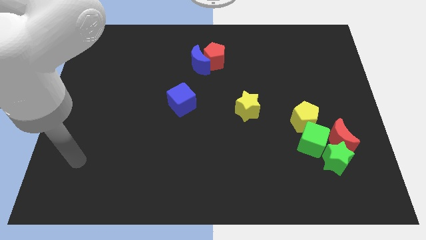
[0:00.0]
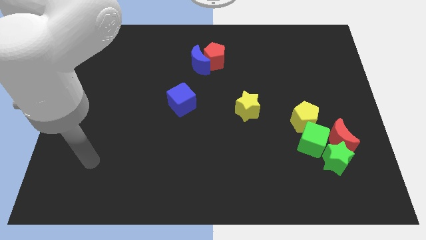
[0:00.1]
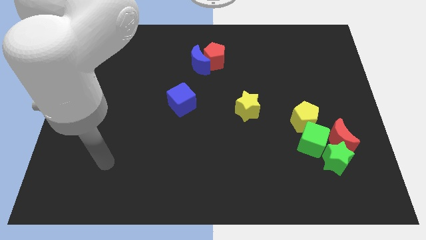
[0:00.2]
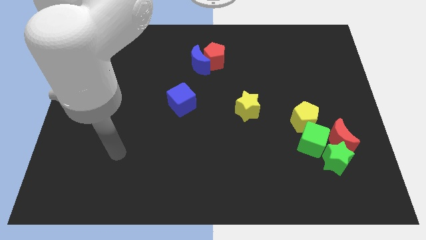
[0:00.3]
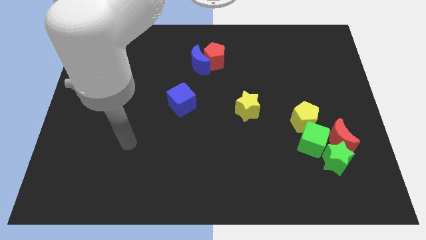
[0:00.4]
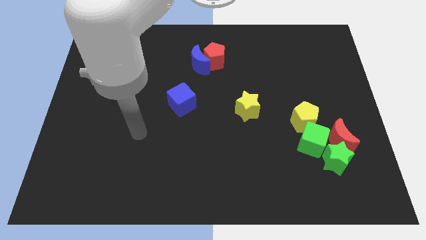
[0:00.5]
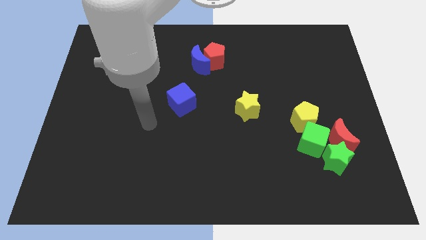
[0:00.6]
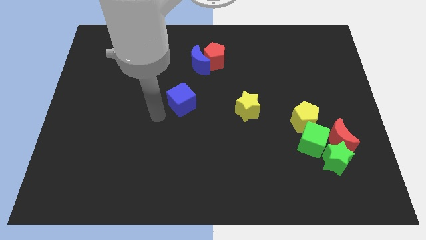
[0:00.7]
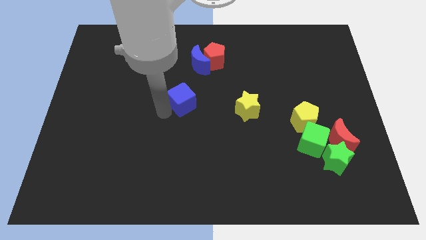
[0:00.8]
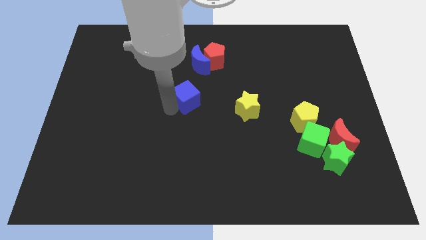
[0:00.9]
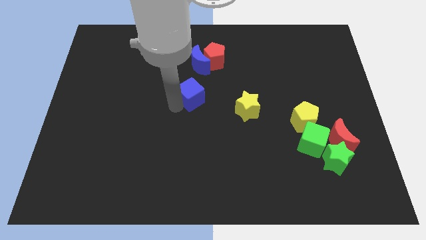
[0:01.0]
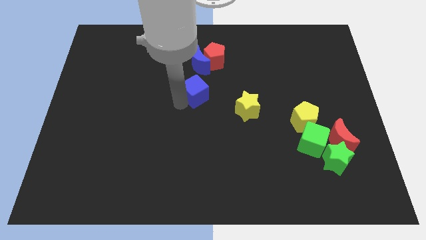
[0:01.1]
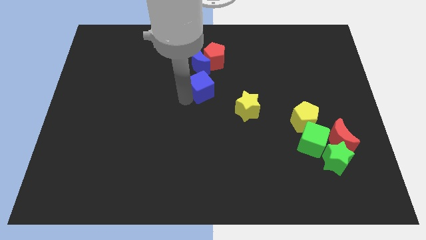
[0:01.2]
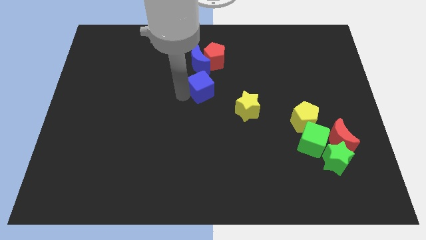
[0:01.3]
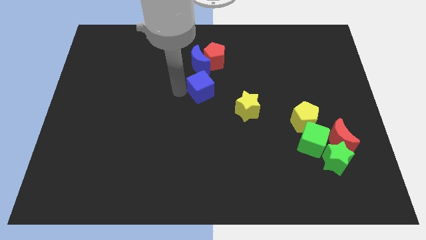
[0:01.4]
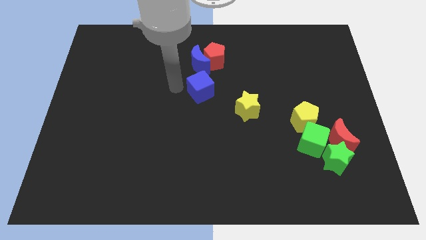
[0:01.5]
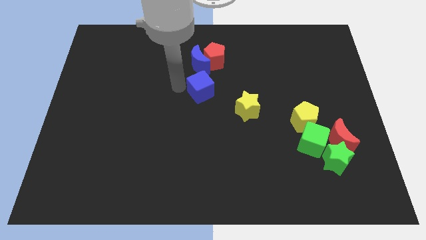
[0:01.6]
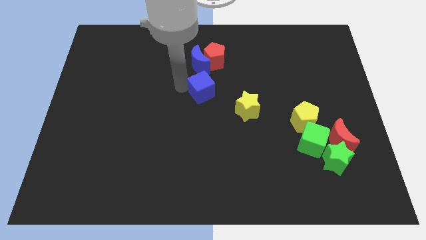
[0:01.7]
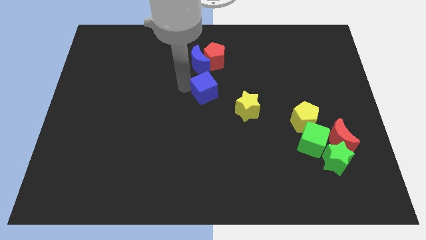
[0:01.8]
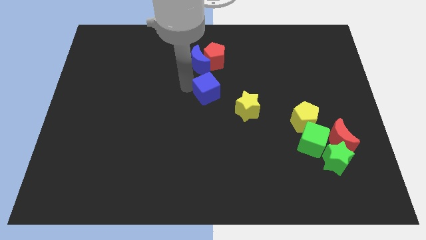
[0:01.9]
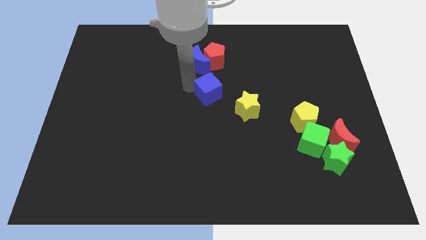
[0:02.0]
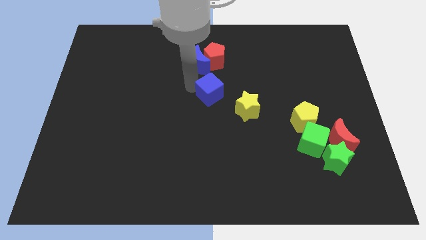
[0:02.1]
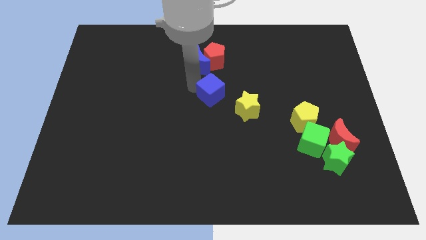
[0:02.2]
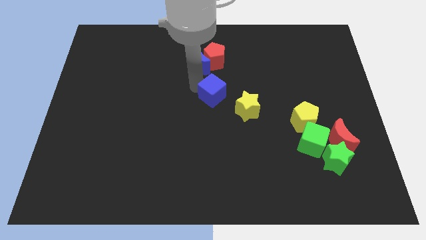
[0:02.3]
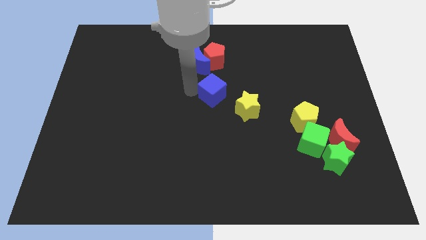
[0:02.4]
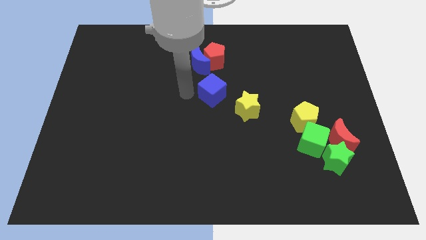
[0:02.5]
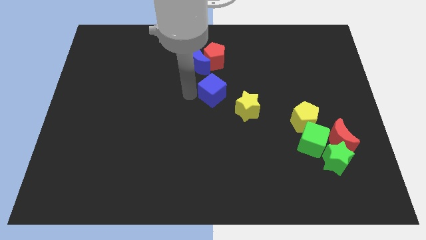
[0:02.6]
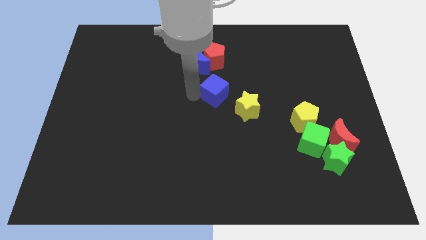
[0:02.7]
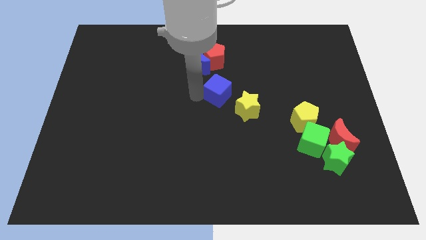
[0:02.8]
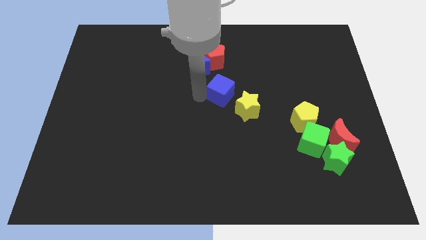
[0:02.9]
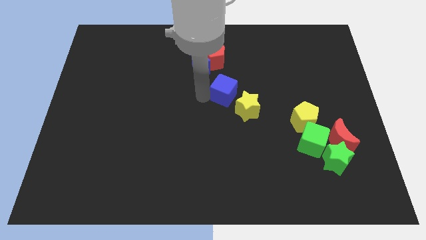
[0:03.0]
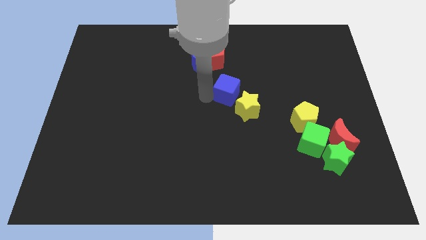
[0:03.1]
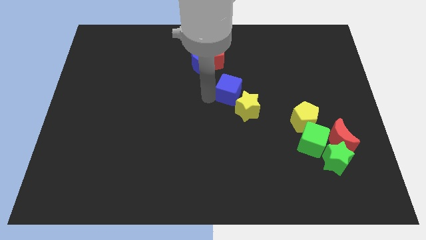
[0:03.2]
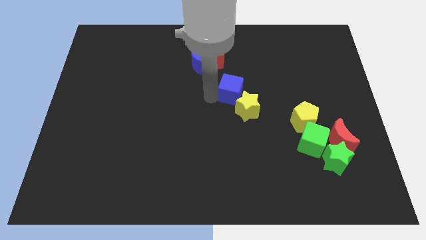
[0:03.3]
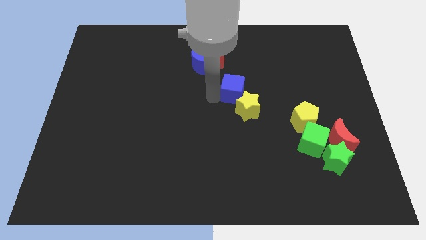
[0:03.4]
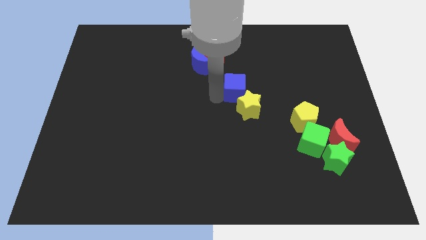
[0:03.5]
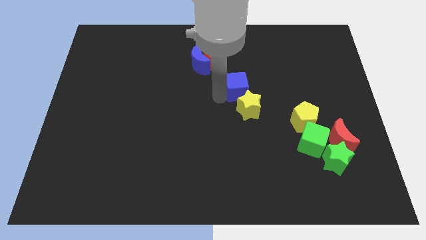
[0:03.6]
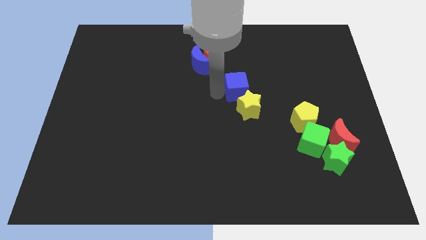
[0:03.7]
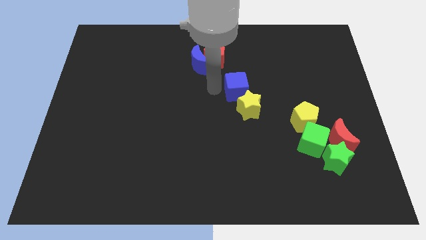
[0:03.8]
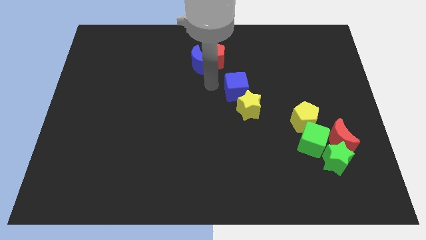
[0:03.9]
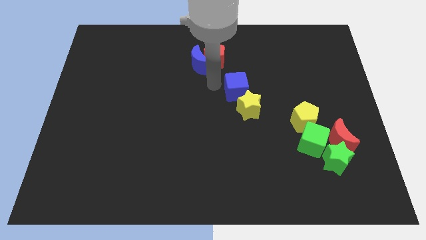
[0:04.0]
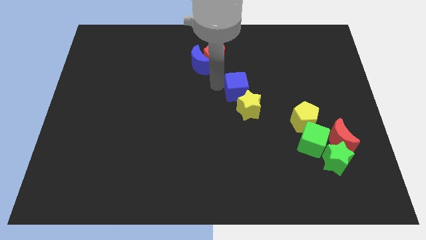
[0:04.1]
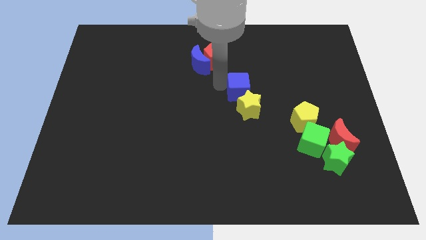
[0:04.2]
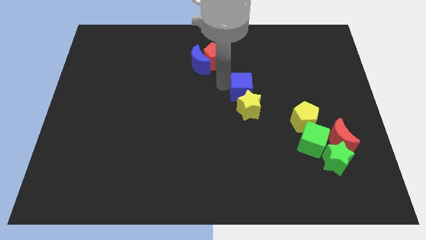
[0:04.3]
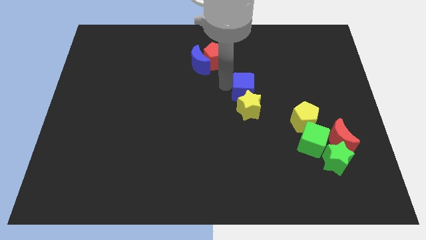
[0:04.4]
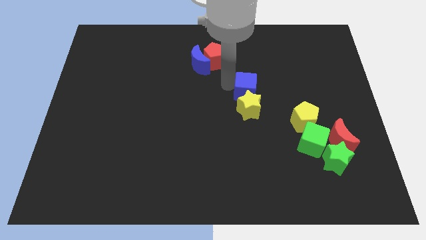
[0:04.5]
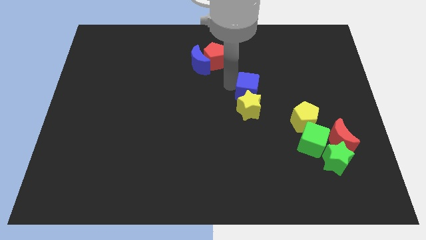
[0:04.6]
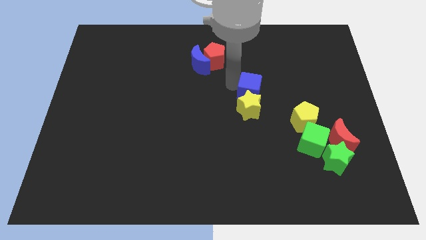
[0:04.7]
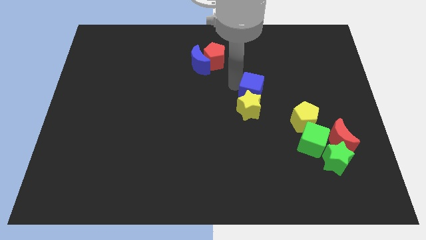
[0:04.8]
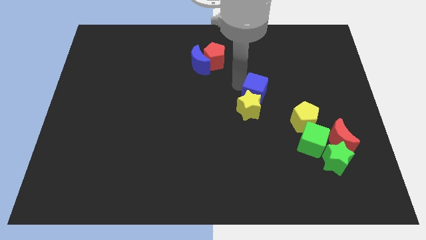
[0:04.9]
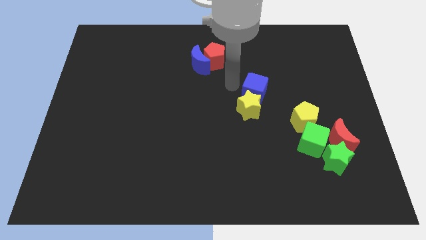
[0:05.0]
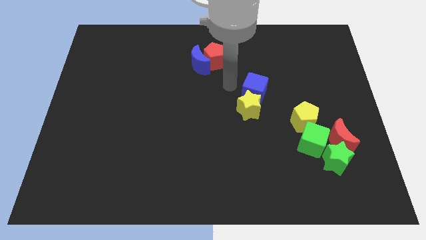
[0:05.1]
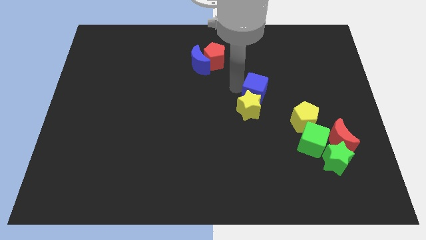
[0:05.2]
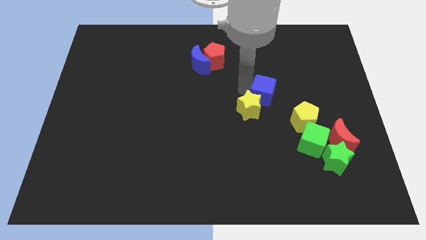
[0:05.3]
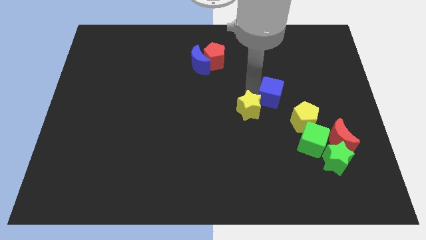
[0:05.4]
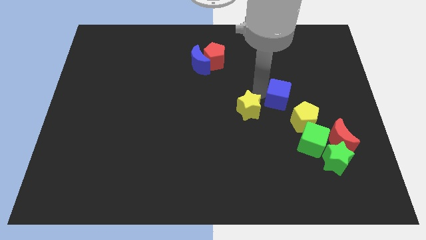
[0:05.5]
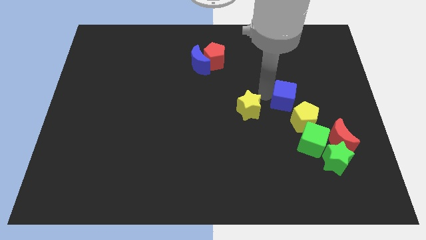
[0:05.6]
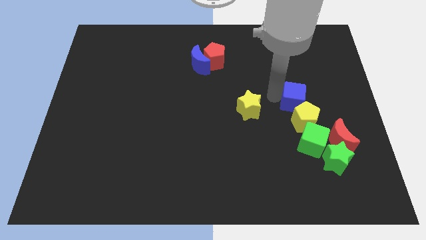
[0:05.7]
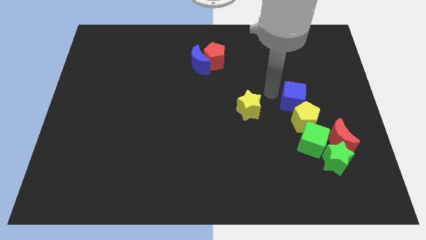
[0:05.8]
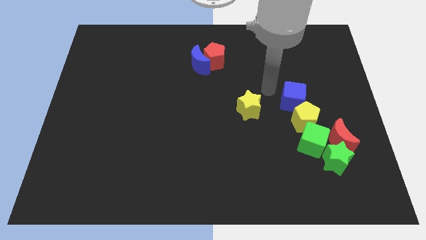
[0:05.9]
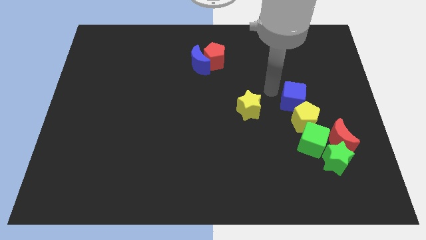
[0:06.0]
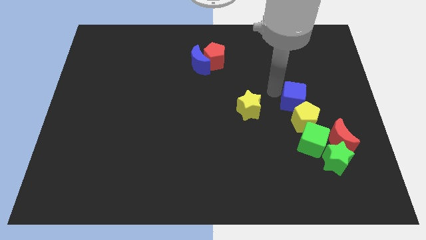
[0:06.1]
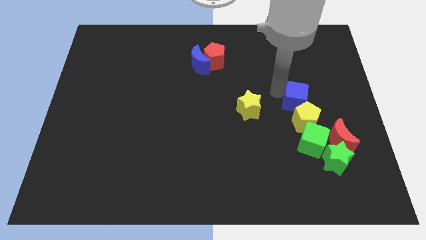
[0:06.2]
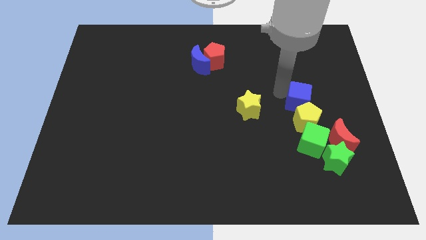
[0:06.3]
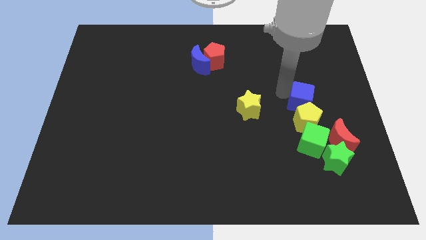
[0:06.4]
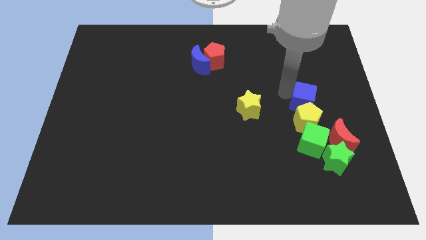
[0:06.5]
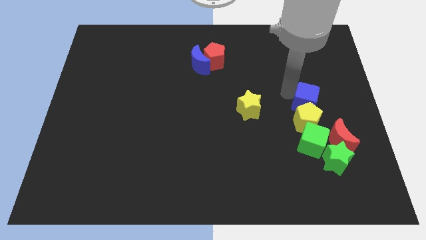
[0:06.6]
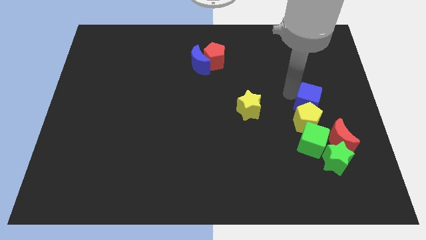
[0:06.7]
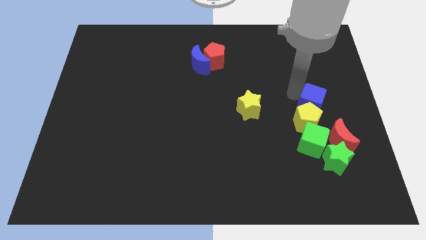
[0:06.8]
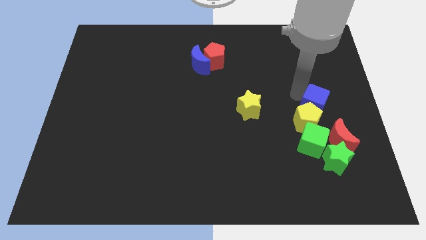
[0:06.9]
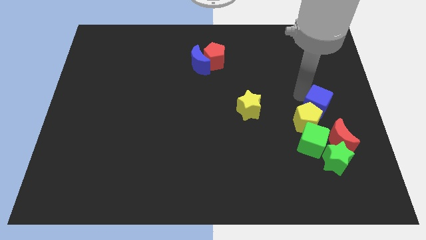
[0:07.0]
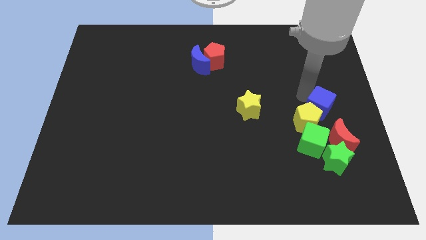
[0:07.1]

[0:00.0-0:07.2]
slide the blue cube diagonally up and to the right of the green cube
